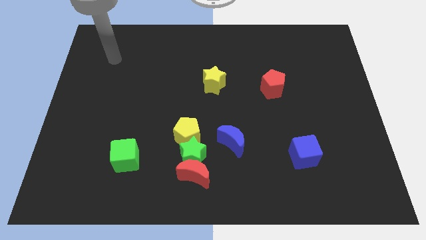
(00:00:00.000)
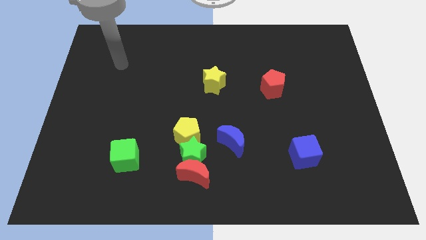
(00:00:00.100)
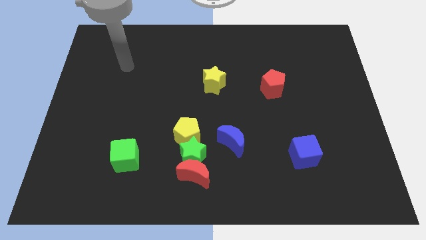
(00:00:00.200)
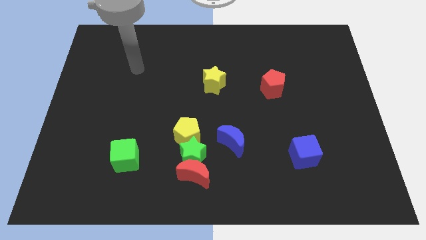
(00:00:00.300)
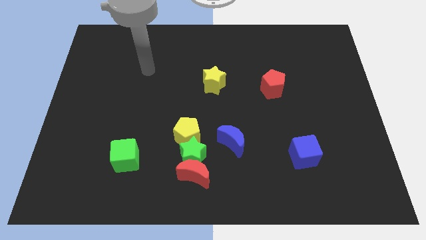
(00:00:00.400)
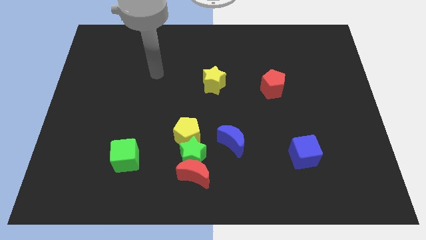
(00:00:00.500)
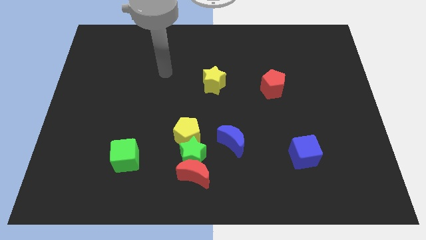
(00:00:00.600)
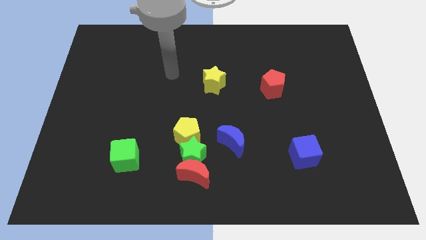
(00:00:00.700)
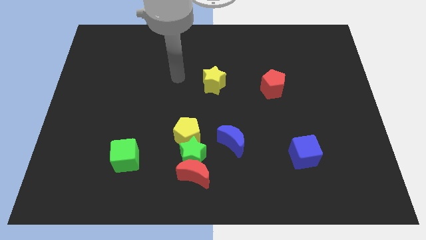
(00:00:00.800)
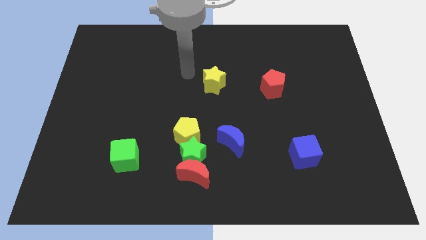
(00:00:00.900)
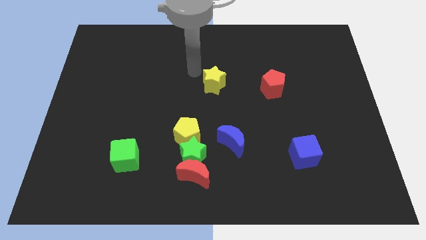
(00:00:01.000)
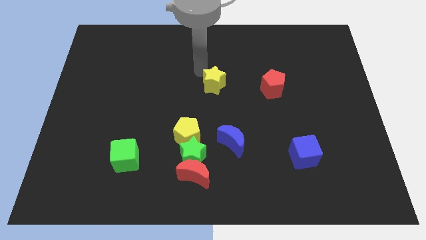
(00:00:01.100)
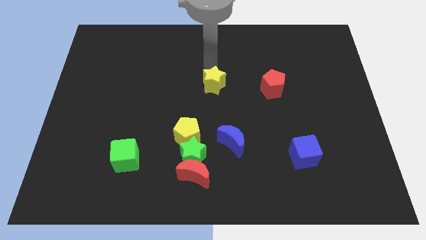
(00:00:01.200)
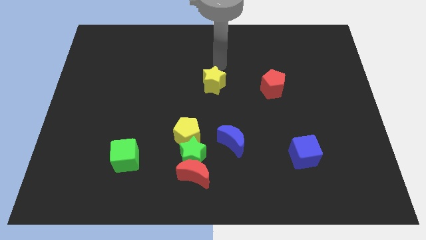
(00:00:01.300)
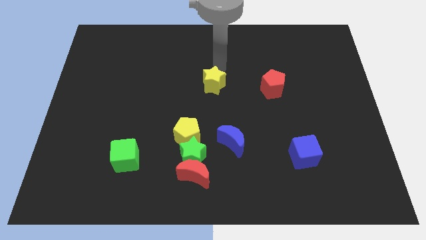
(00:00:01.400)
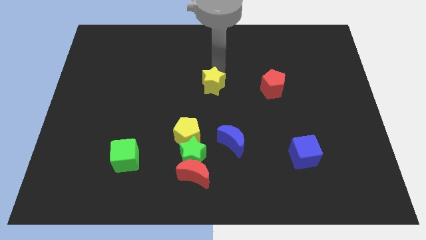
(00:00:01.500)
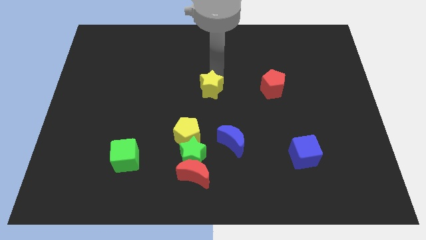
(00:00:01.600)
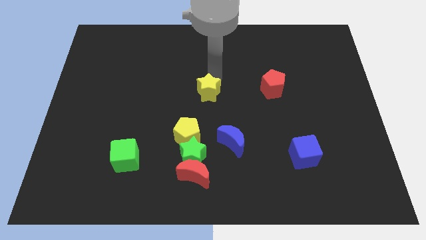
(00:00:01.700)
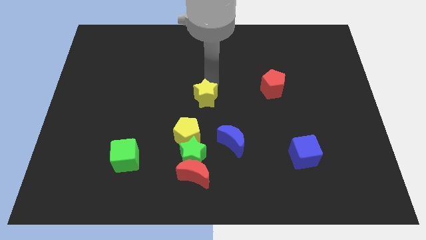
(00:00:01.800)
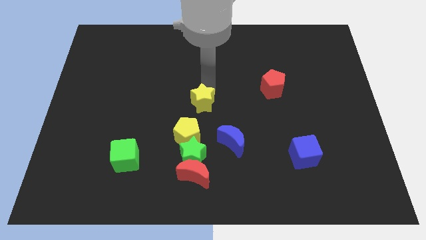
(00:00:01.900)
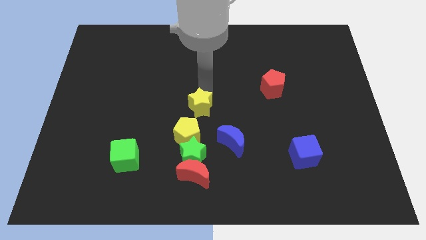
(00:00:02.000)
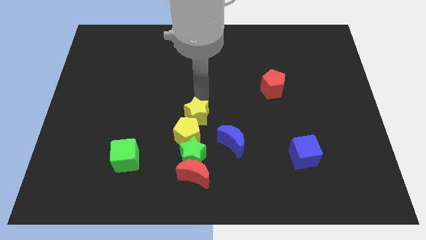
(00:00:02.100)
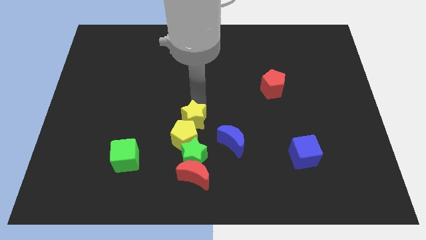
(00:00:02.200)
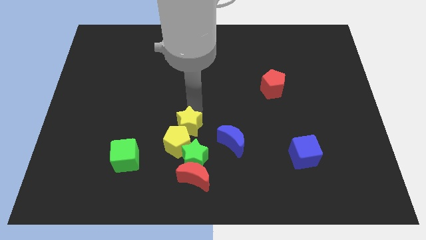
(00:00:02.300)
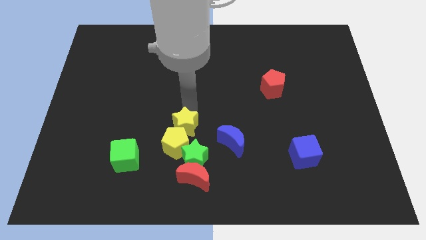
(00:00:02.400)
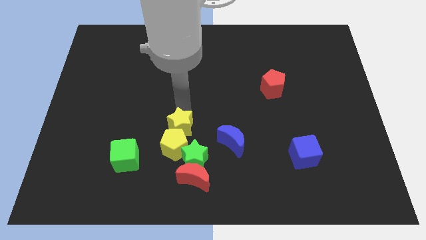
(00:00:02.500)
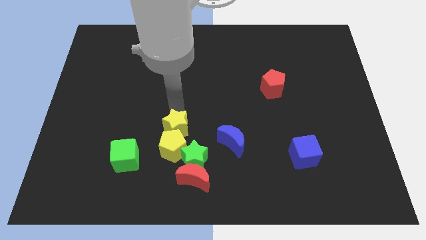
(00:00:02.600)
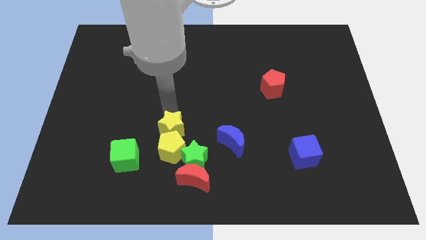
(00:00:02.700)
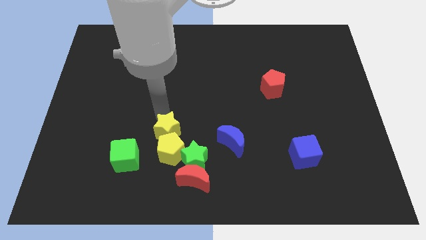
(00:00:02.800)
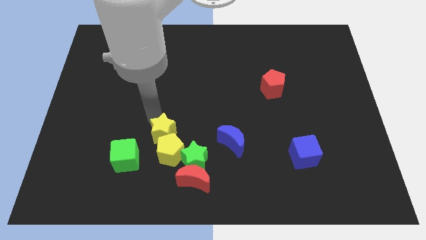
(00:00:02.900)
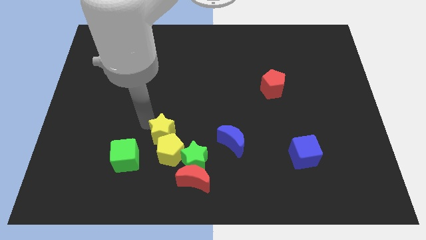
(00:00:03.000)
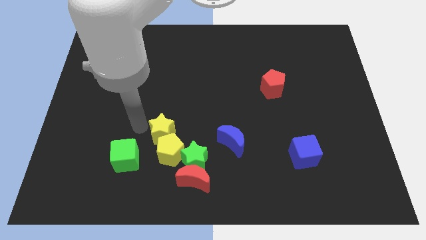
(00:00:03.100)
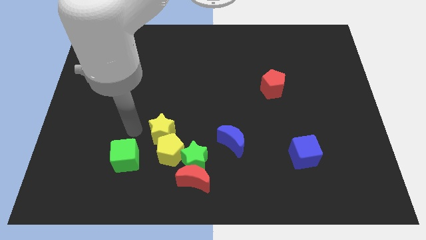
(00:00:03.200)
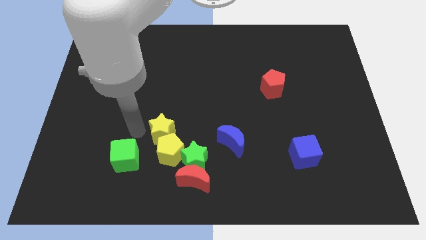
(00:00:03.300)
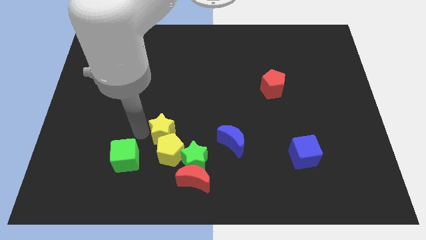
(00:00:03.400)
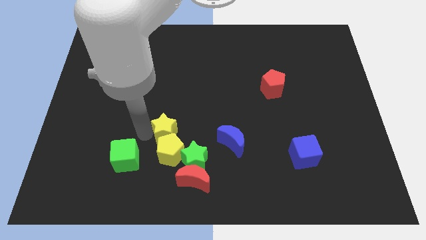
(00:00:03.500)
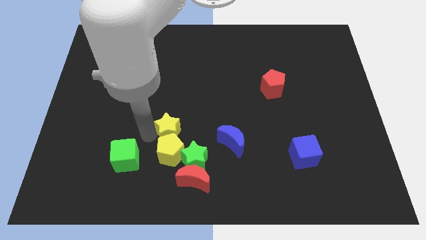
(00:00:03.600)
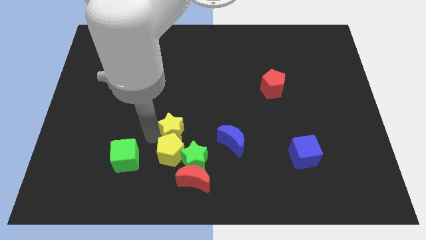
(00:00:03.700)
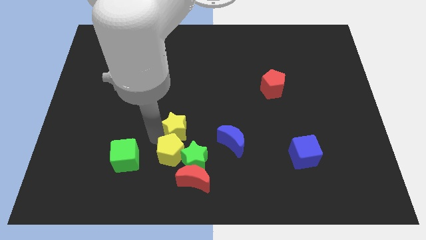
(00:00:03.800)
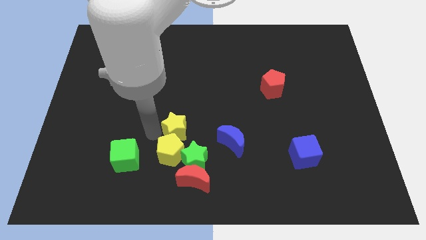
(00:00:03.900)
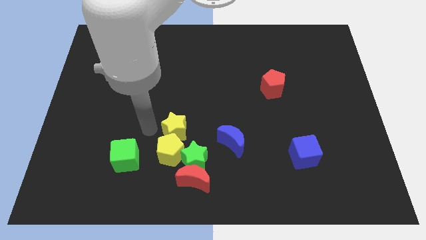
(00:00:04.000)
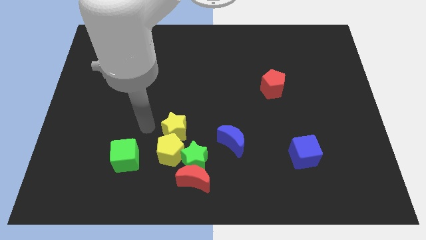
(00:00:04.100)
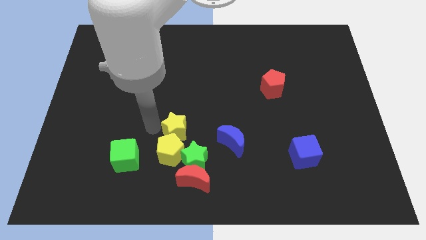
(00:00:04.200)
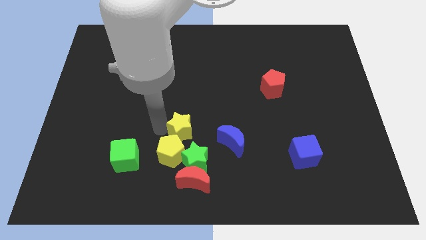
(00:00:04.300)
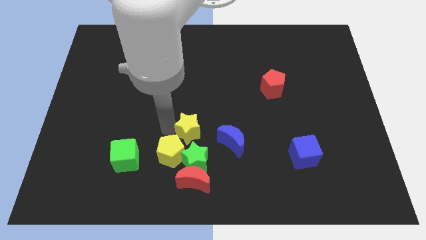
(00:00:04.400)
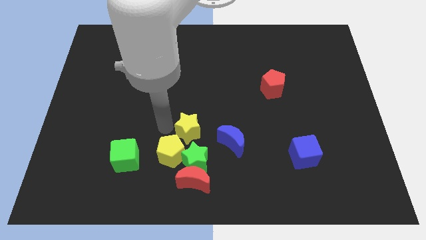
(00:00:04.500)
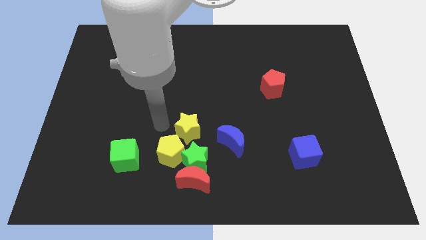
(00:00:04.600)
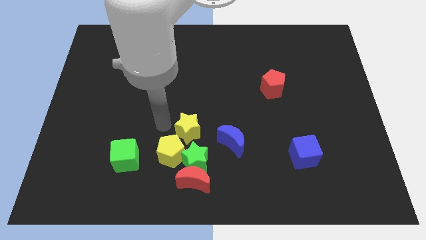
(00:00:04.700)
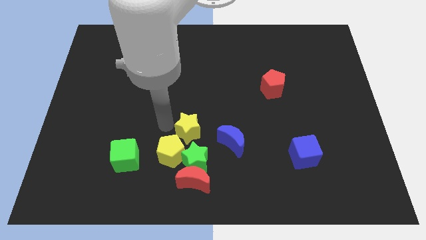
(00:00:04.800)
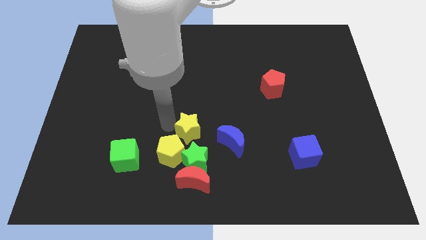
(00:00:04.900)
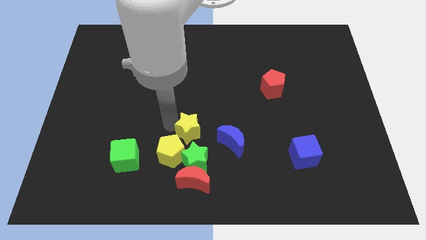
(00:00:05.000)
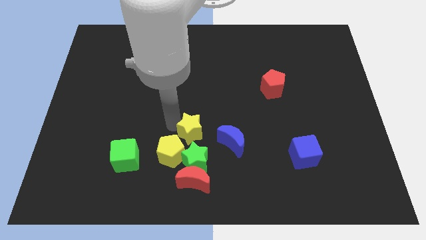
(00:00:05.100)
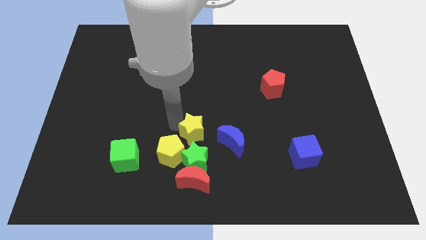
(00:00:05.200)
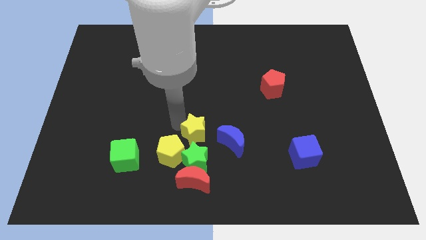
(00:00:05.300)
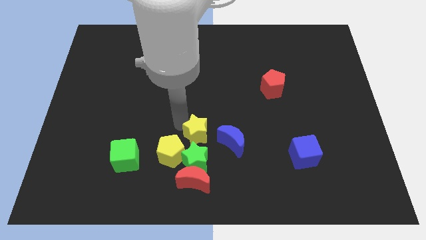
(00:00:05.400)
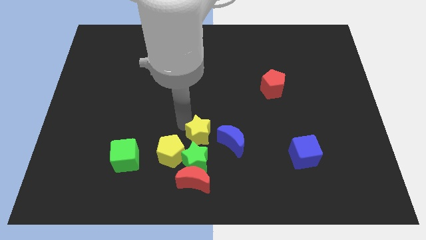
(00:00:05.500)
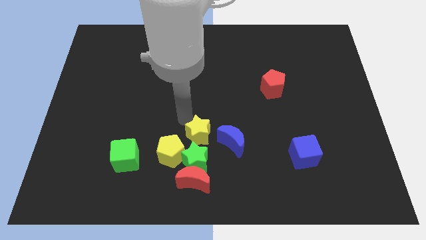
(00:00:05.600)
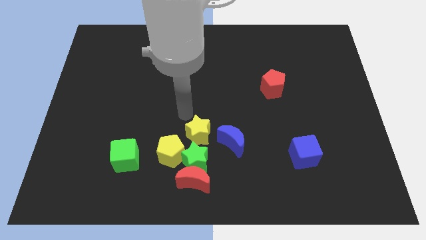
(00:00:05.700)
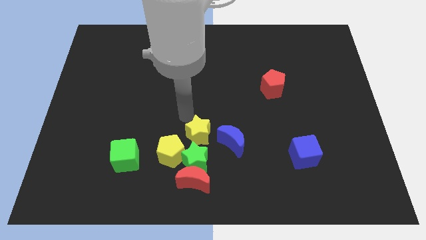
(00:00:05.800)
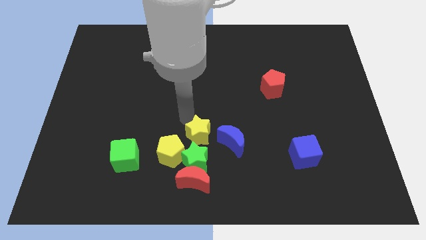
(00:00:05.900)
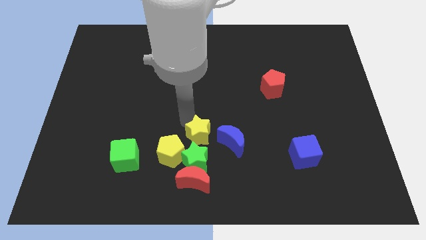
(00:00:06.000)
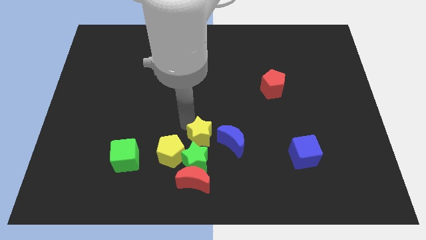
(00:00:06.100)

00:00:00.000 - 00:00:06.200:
put the yellow star close to the green star

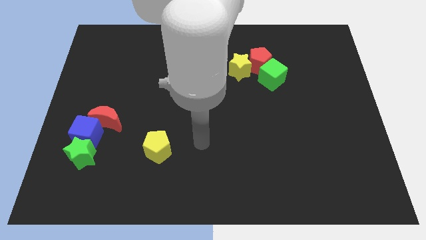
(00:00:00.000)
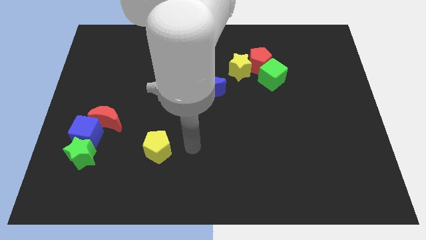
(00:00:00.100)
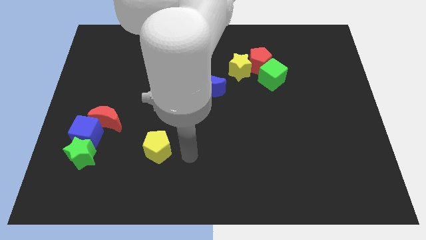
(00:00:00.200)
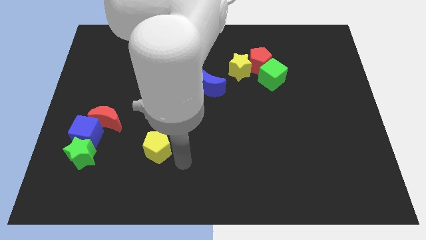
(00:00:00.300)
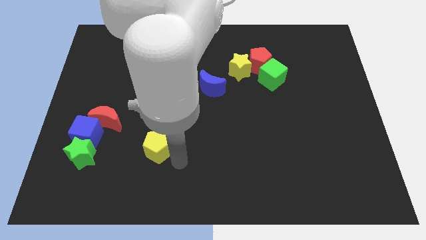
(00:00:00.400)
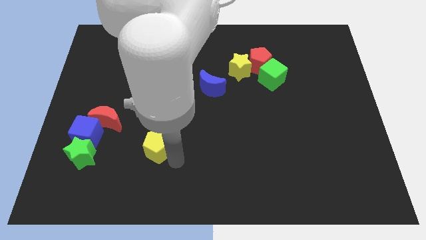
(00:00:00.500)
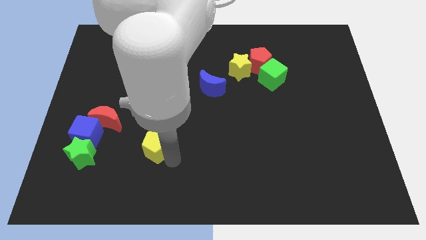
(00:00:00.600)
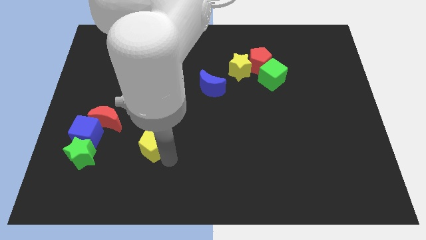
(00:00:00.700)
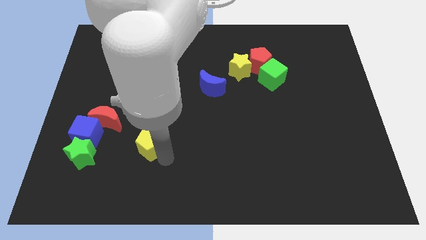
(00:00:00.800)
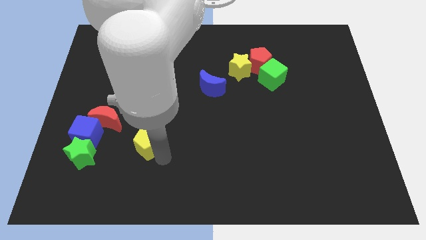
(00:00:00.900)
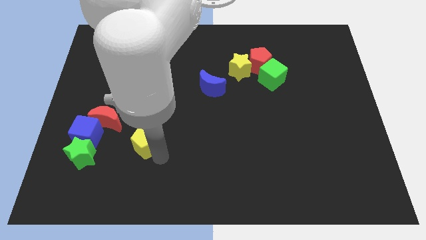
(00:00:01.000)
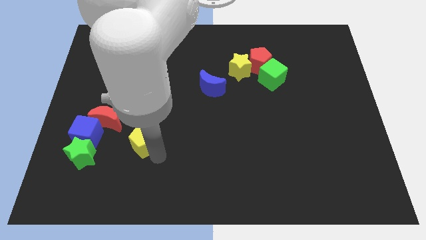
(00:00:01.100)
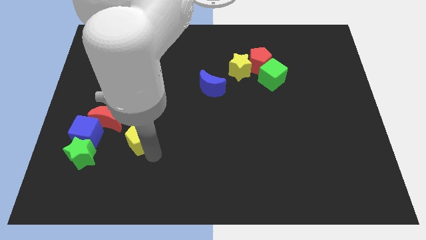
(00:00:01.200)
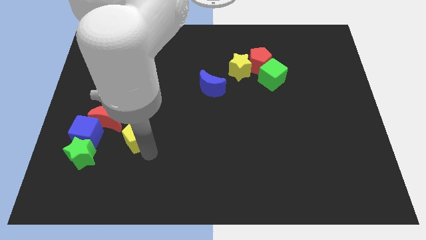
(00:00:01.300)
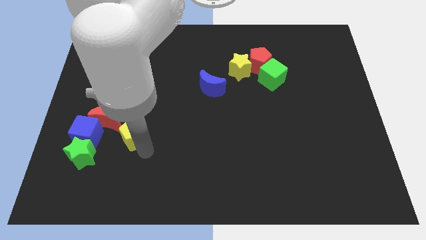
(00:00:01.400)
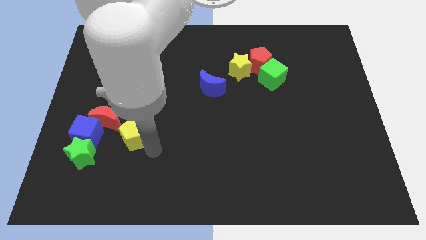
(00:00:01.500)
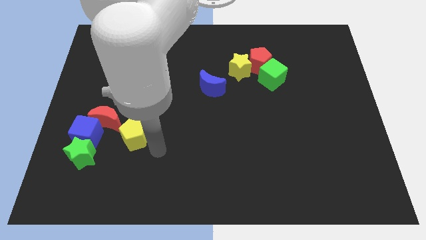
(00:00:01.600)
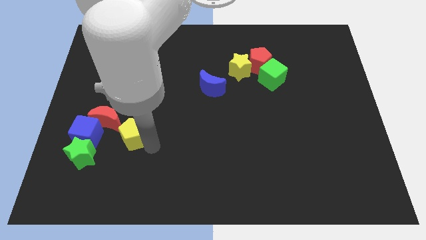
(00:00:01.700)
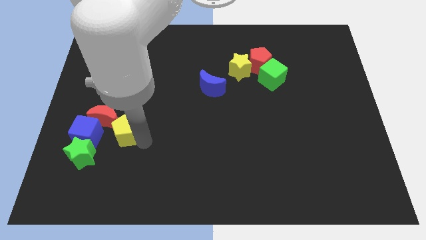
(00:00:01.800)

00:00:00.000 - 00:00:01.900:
slide the yellow pentagon next to the red moon

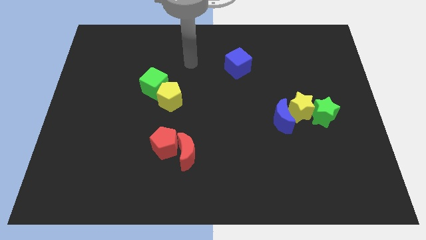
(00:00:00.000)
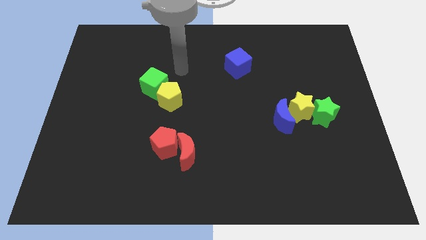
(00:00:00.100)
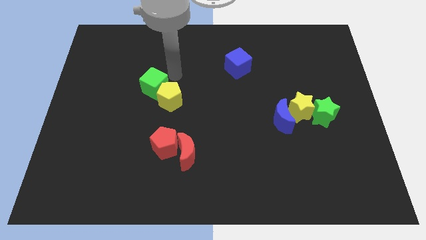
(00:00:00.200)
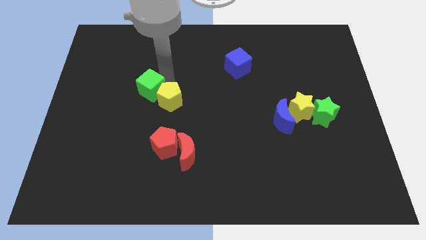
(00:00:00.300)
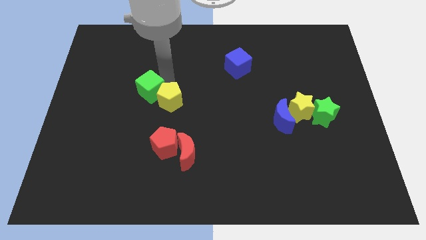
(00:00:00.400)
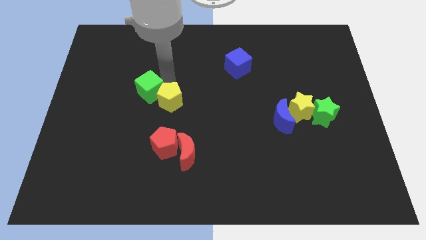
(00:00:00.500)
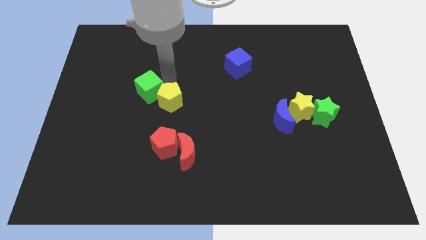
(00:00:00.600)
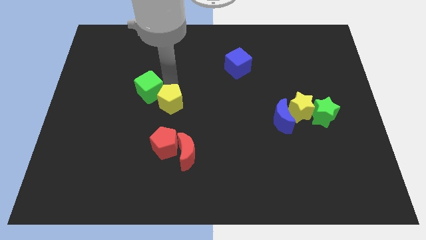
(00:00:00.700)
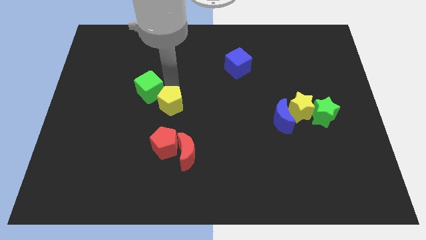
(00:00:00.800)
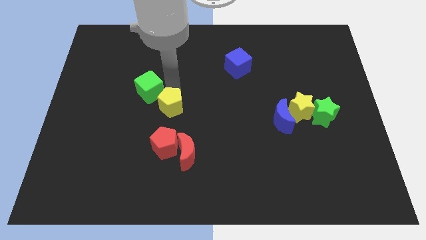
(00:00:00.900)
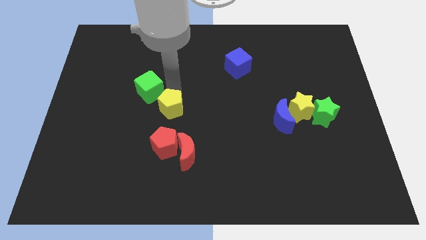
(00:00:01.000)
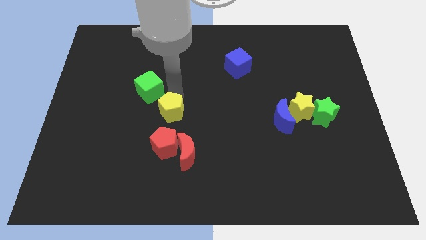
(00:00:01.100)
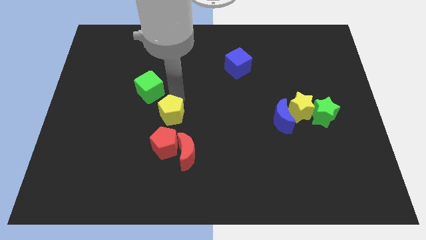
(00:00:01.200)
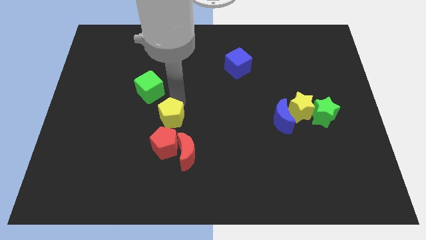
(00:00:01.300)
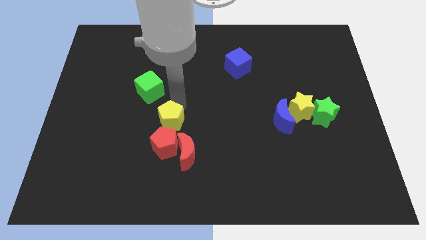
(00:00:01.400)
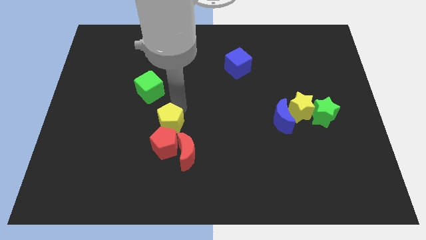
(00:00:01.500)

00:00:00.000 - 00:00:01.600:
put the yellow pentagon towards the red pentagon
